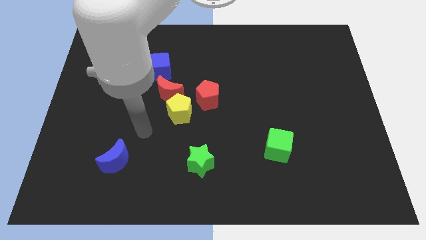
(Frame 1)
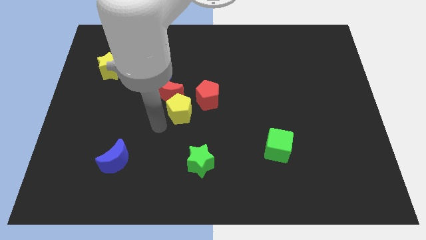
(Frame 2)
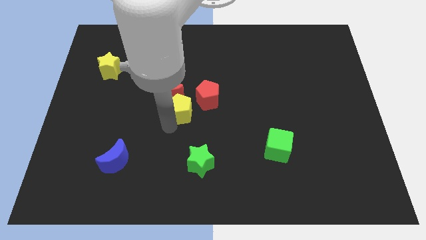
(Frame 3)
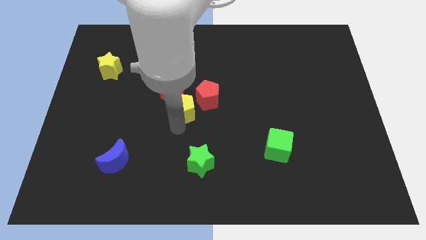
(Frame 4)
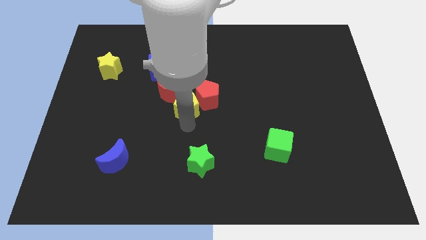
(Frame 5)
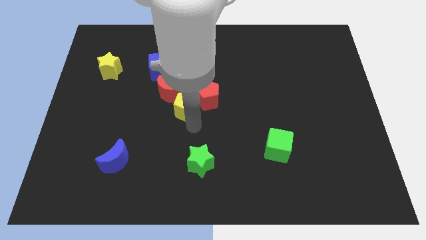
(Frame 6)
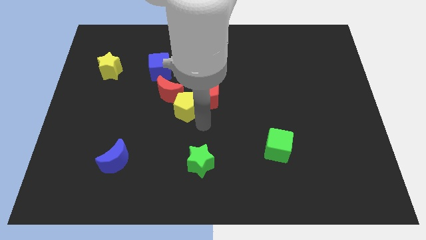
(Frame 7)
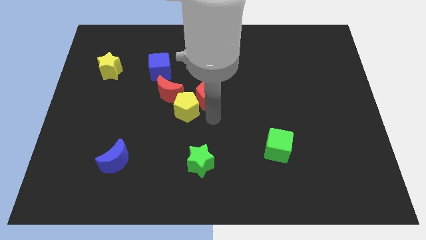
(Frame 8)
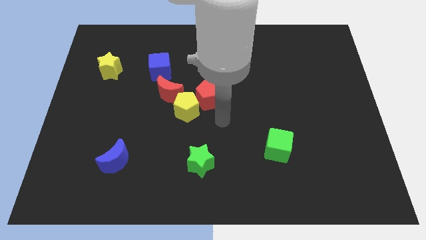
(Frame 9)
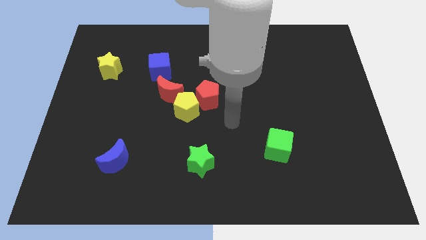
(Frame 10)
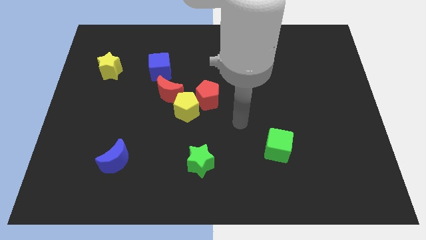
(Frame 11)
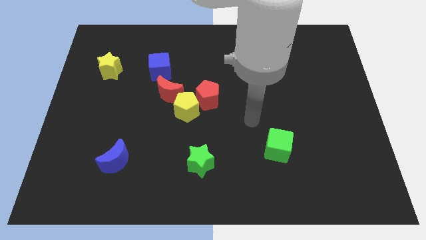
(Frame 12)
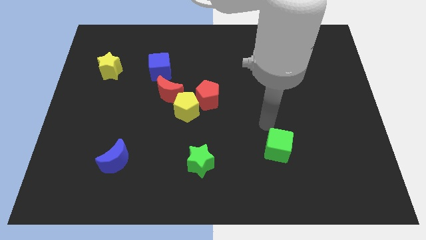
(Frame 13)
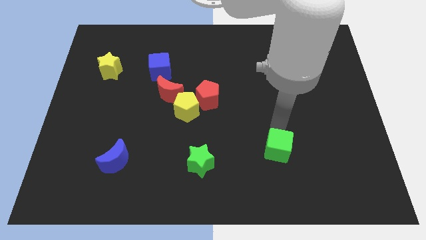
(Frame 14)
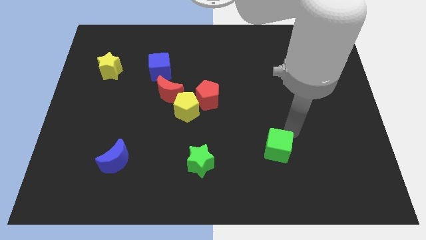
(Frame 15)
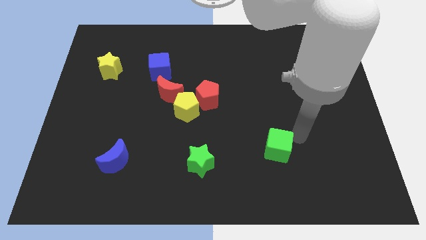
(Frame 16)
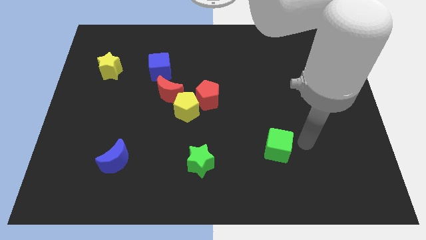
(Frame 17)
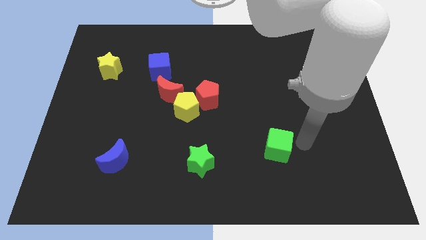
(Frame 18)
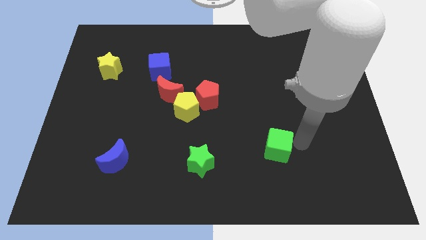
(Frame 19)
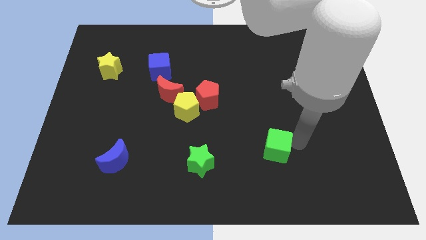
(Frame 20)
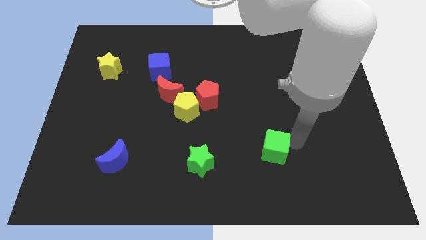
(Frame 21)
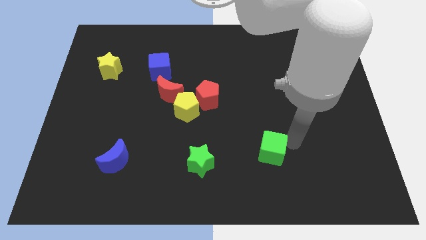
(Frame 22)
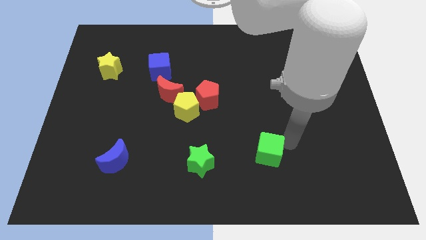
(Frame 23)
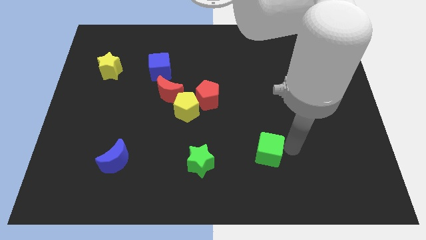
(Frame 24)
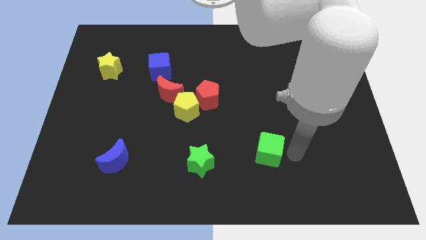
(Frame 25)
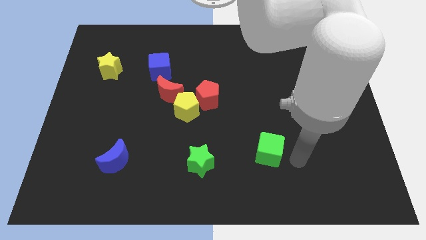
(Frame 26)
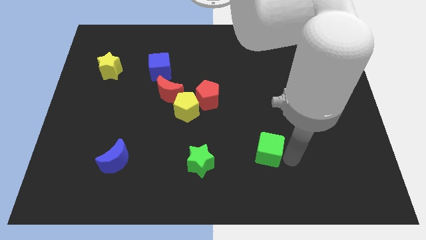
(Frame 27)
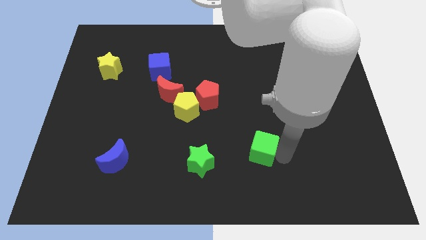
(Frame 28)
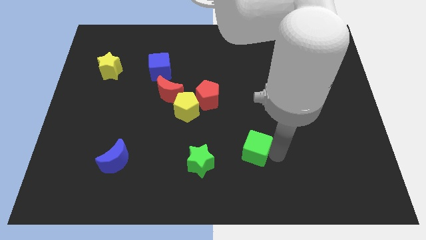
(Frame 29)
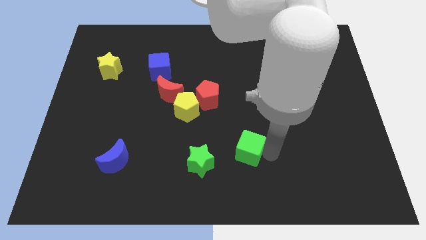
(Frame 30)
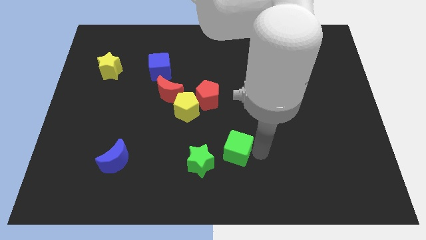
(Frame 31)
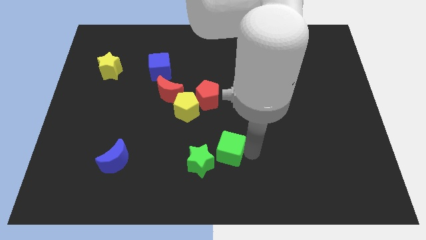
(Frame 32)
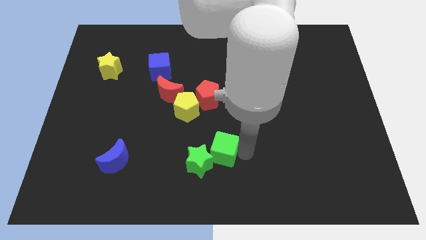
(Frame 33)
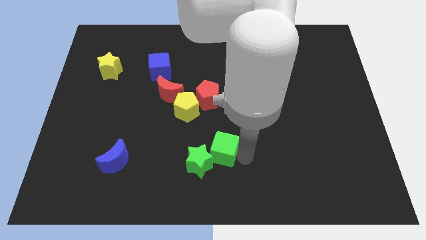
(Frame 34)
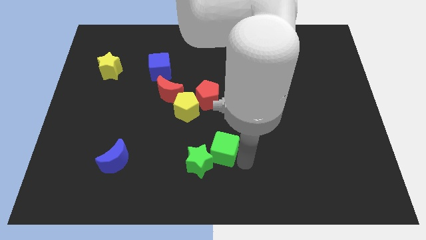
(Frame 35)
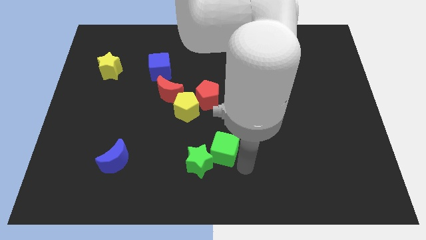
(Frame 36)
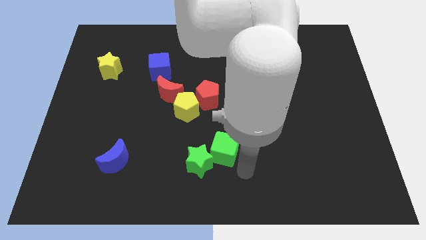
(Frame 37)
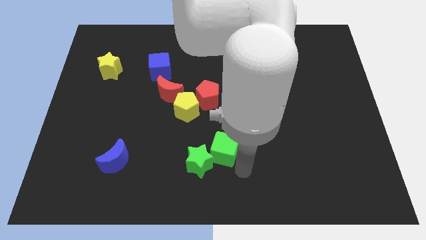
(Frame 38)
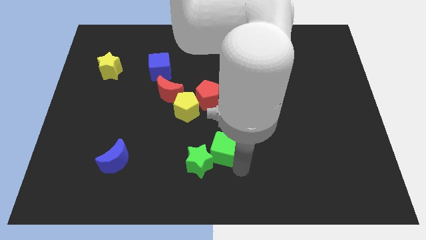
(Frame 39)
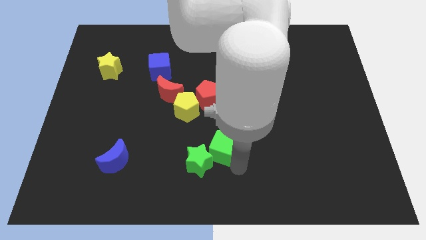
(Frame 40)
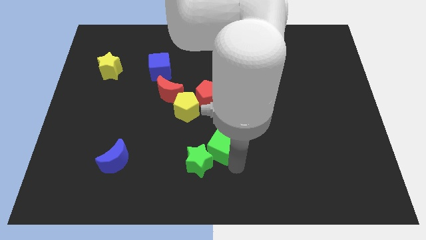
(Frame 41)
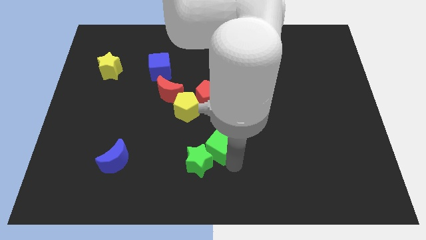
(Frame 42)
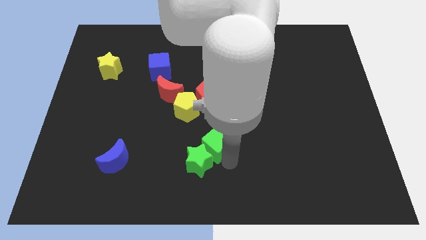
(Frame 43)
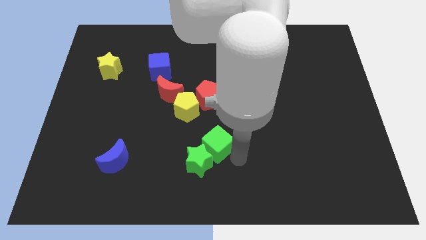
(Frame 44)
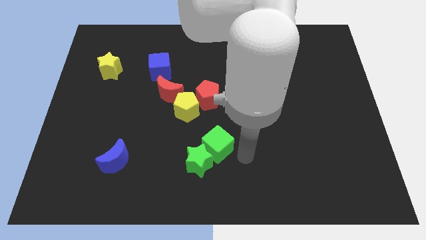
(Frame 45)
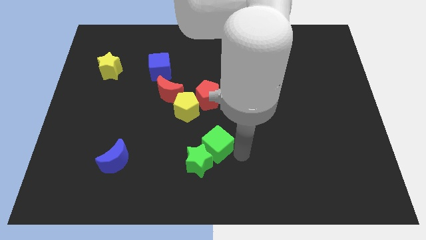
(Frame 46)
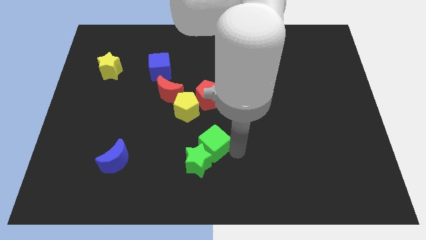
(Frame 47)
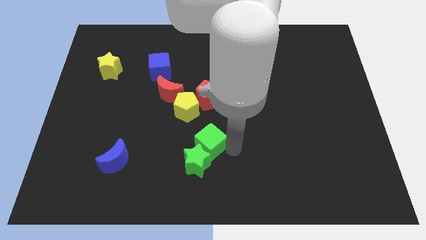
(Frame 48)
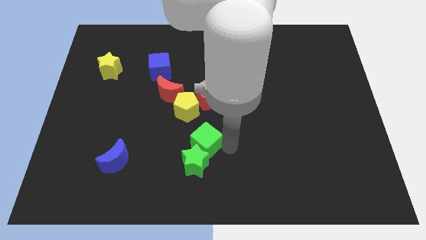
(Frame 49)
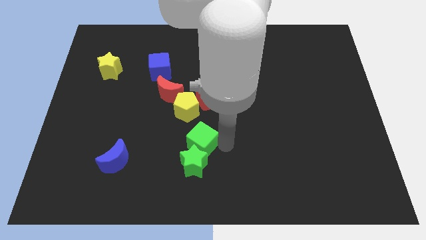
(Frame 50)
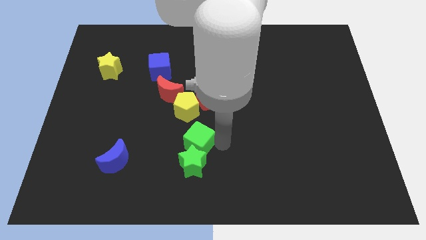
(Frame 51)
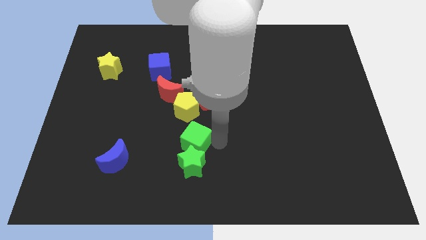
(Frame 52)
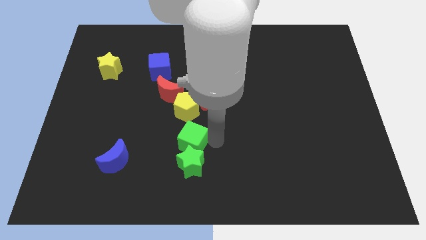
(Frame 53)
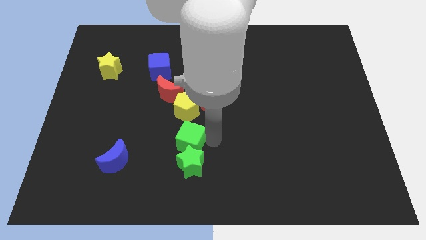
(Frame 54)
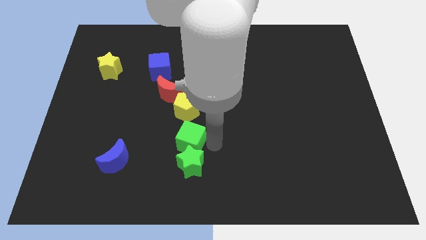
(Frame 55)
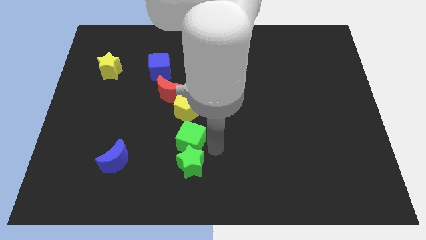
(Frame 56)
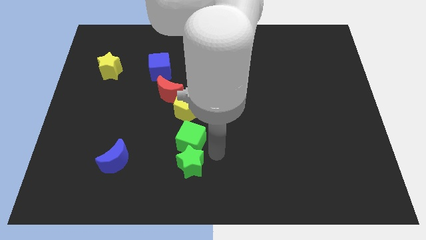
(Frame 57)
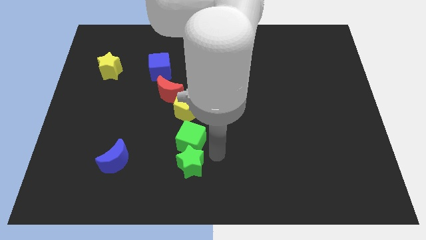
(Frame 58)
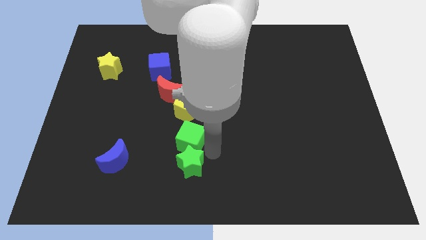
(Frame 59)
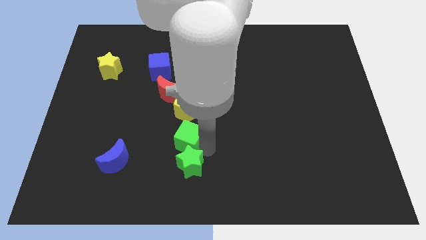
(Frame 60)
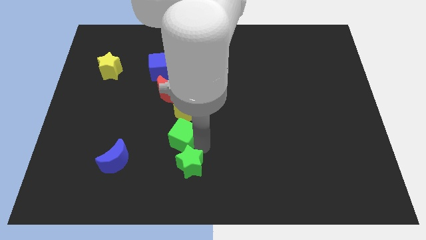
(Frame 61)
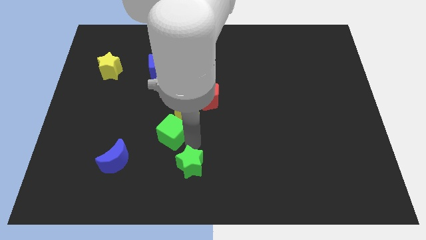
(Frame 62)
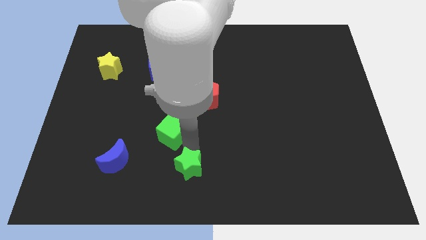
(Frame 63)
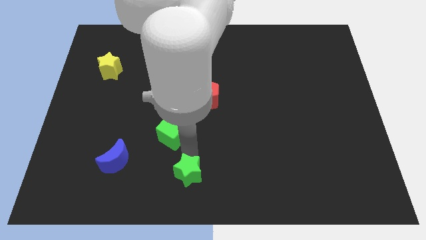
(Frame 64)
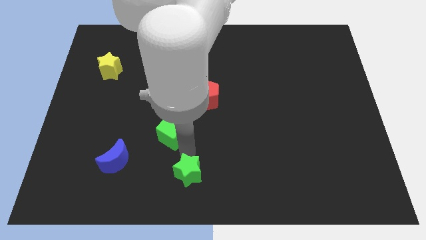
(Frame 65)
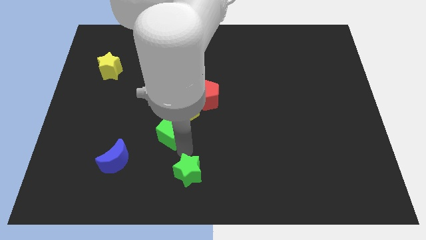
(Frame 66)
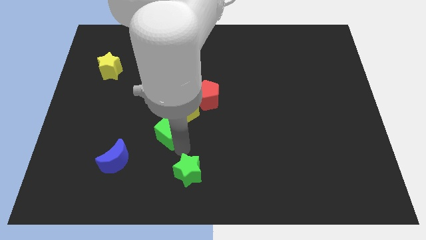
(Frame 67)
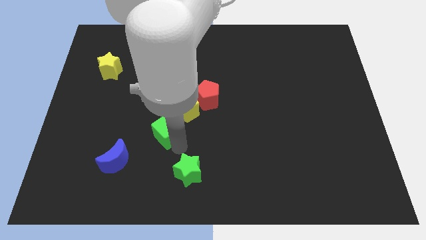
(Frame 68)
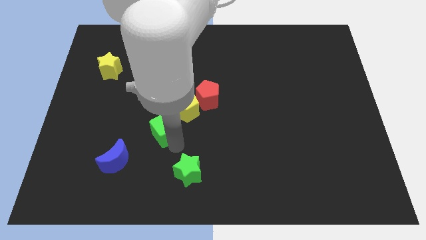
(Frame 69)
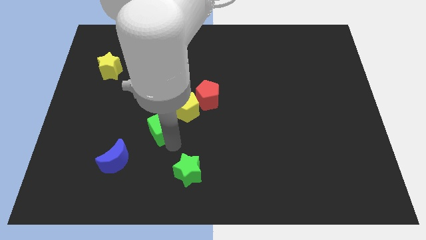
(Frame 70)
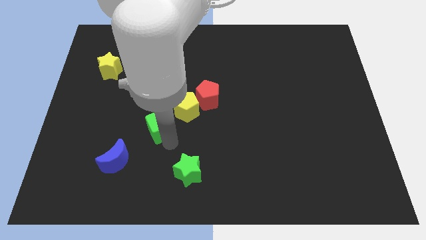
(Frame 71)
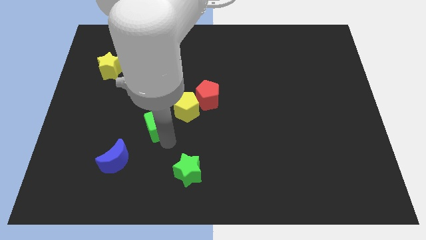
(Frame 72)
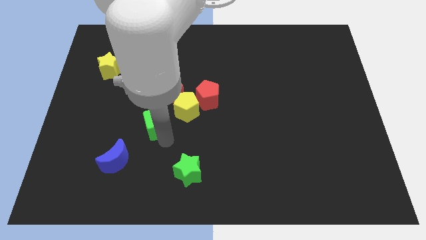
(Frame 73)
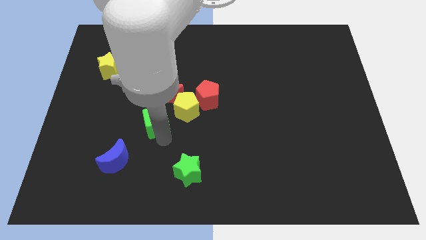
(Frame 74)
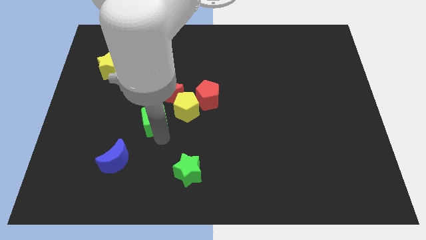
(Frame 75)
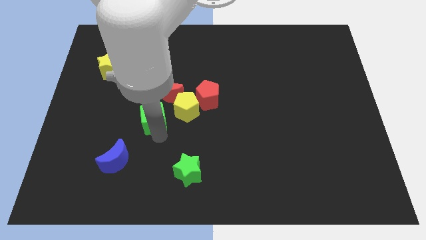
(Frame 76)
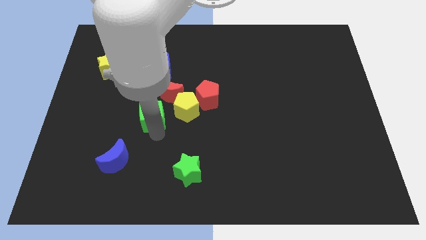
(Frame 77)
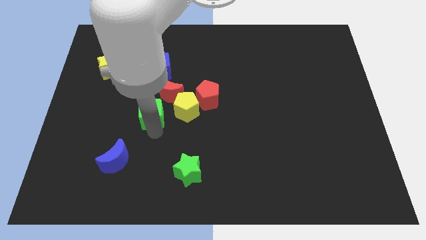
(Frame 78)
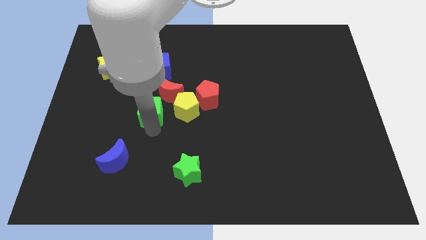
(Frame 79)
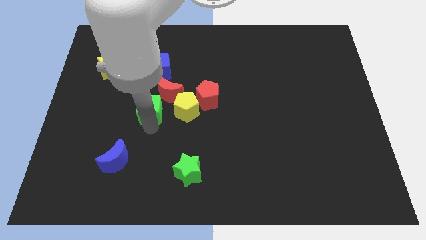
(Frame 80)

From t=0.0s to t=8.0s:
put the green cube left of the red pentagon
